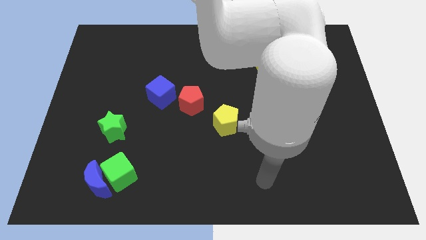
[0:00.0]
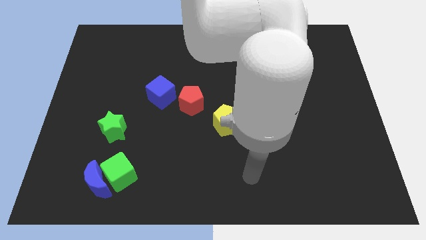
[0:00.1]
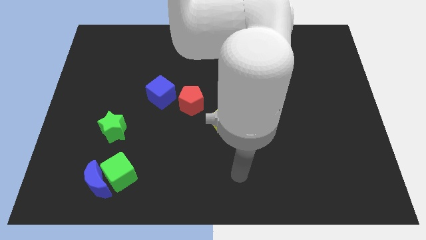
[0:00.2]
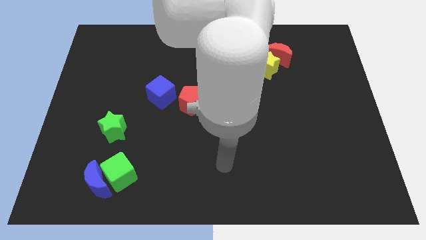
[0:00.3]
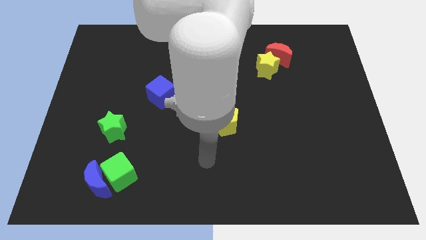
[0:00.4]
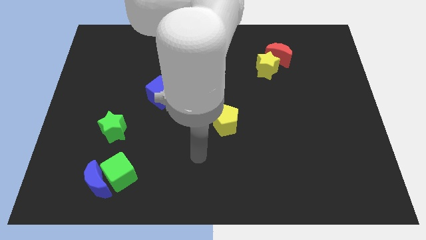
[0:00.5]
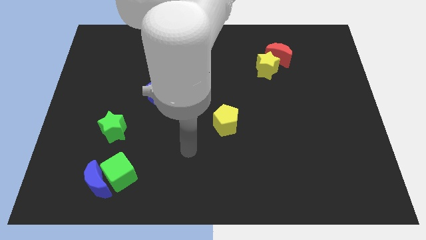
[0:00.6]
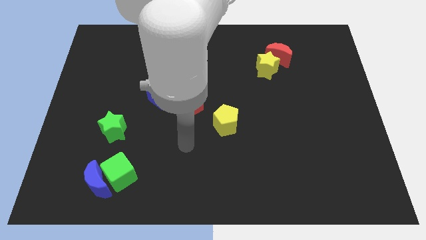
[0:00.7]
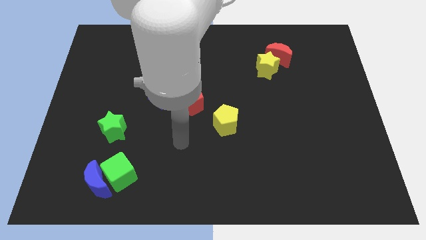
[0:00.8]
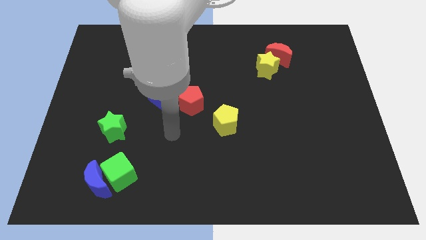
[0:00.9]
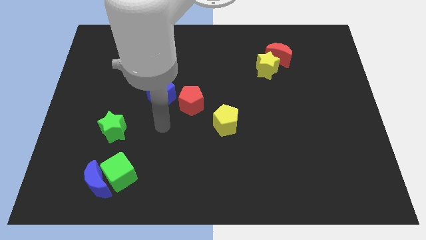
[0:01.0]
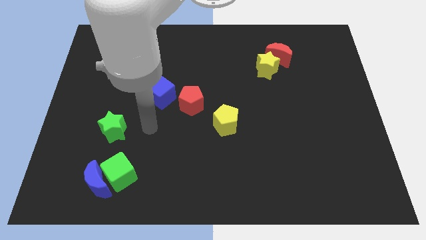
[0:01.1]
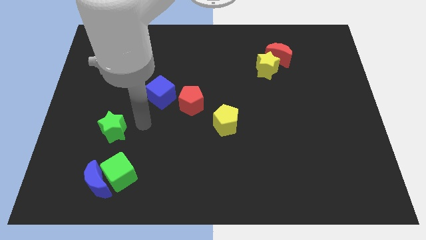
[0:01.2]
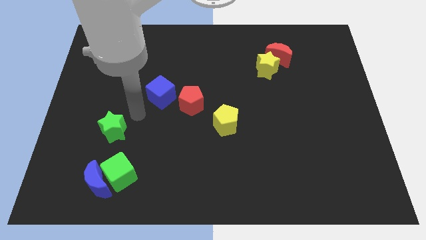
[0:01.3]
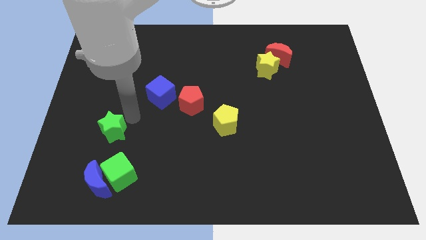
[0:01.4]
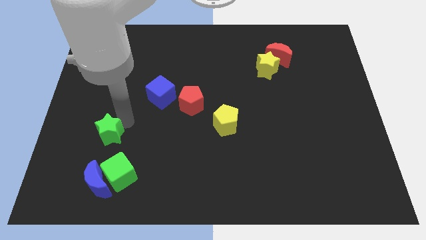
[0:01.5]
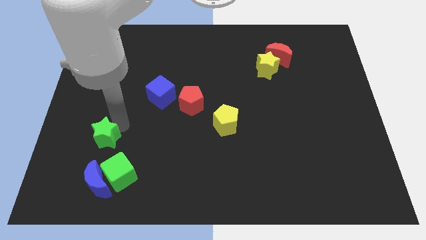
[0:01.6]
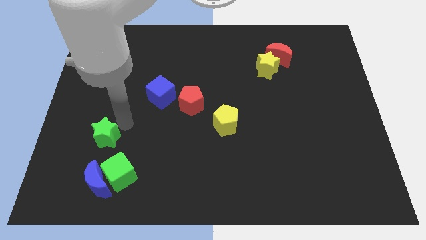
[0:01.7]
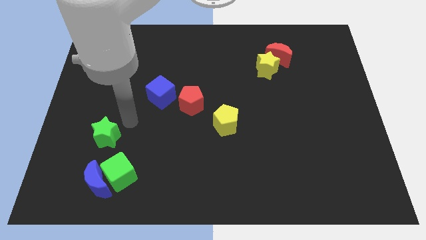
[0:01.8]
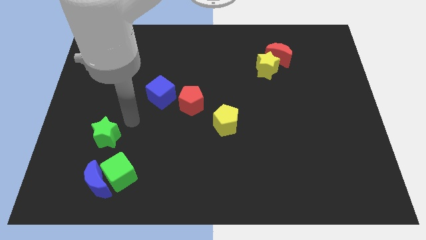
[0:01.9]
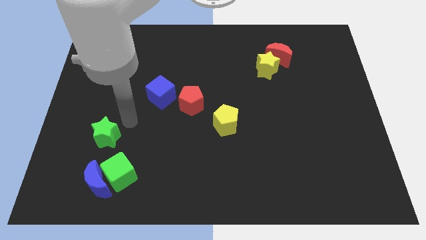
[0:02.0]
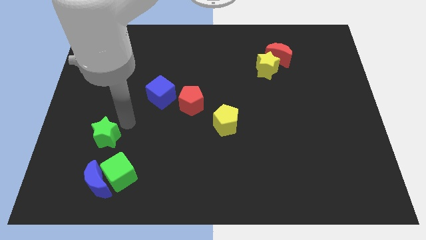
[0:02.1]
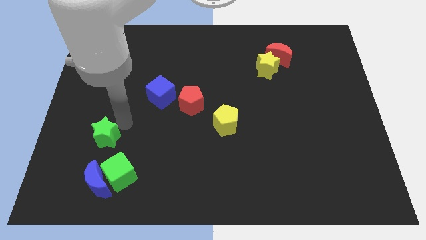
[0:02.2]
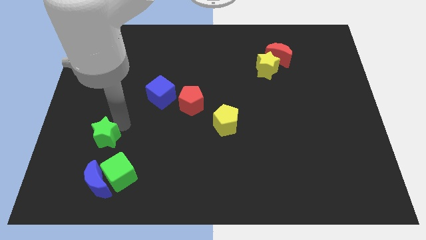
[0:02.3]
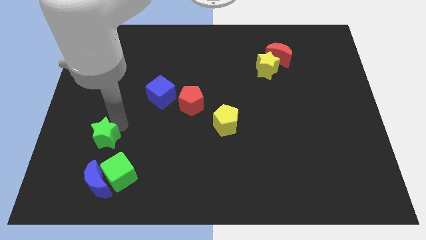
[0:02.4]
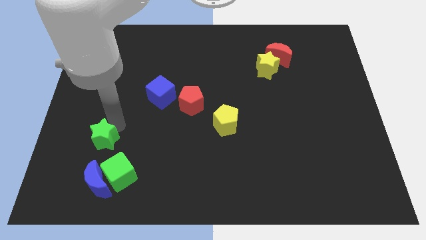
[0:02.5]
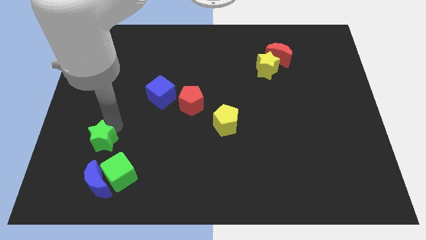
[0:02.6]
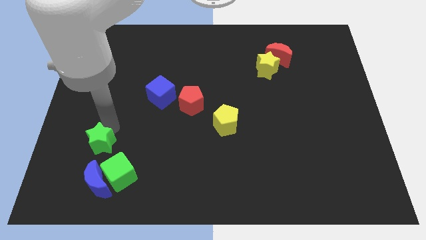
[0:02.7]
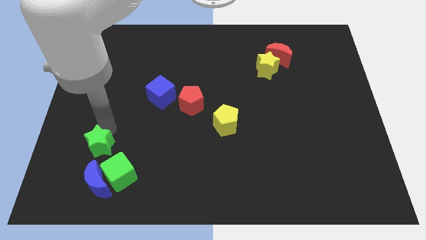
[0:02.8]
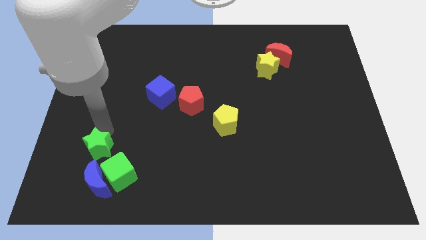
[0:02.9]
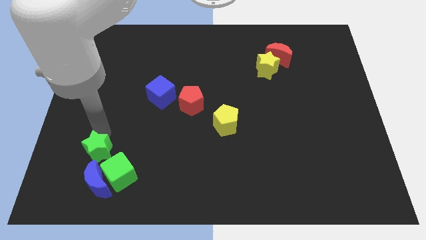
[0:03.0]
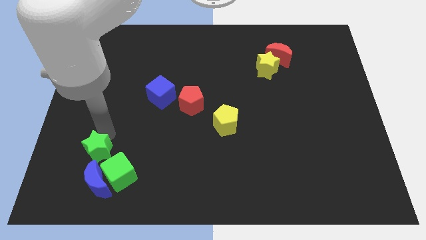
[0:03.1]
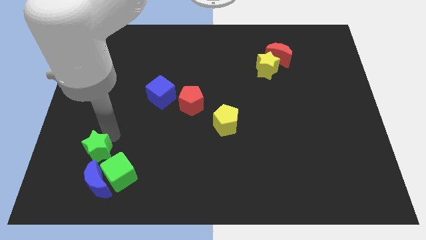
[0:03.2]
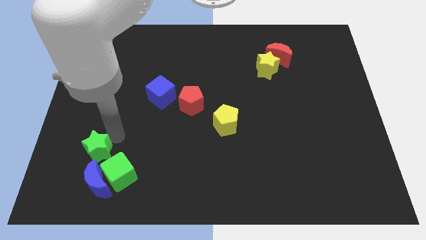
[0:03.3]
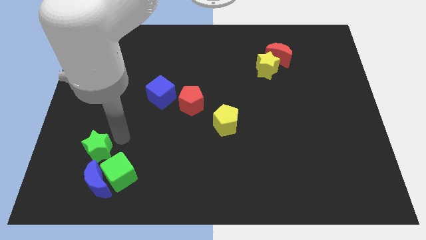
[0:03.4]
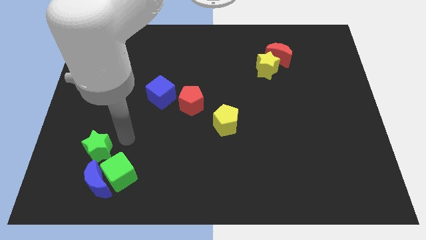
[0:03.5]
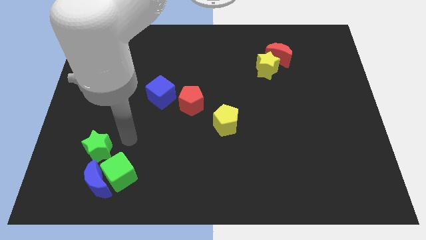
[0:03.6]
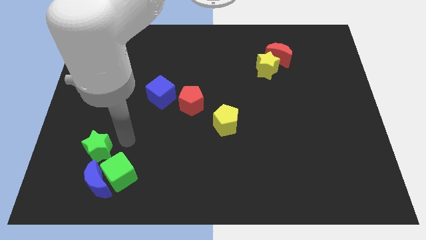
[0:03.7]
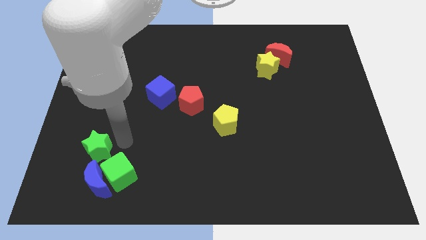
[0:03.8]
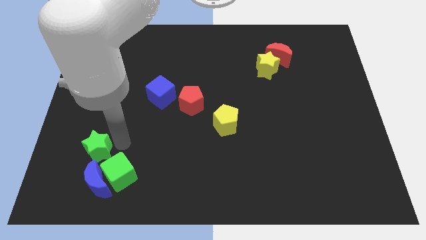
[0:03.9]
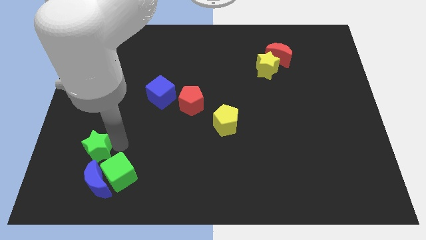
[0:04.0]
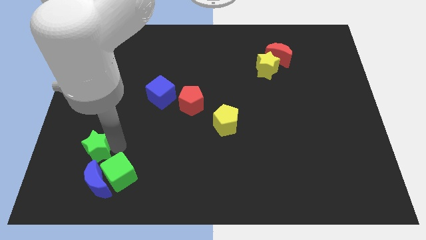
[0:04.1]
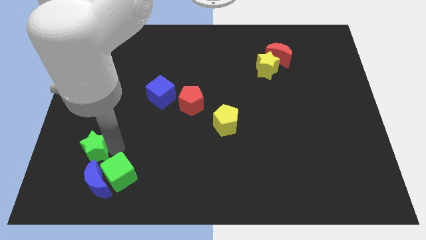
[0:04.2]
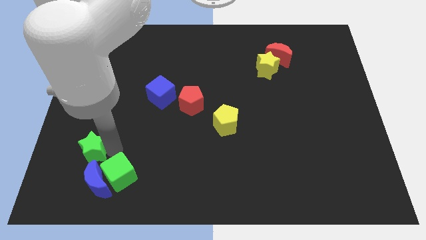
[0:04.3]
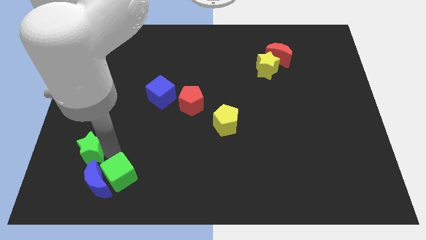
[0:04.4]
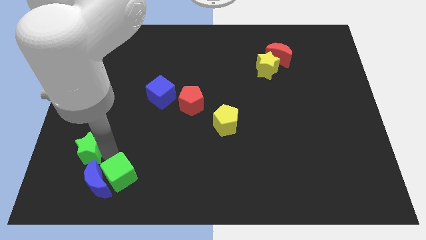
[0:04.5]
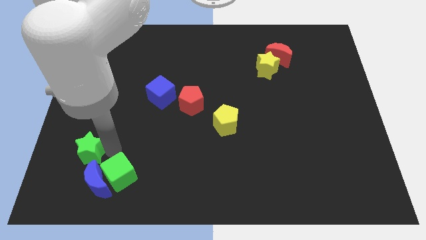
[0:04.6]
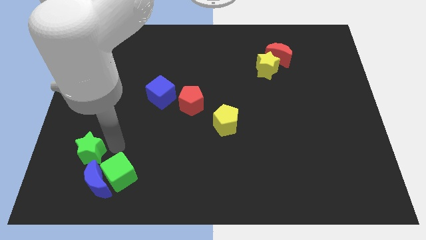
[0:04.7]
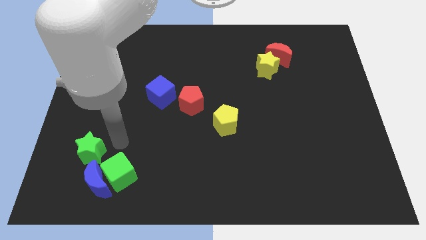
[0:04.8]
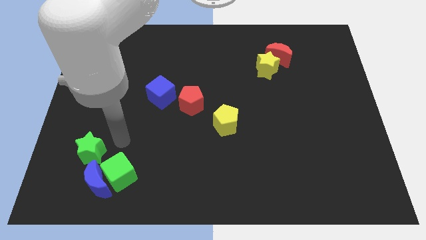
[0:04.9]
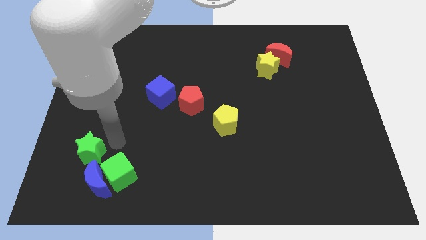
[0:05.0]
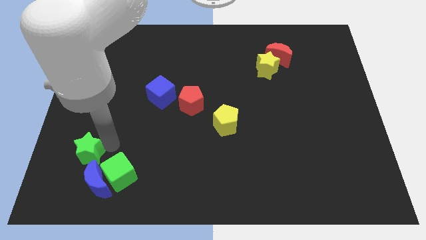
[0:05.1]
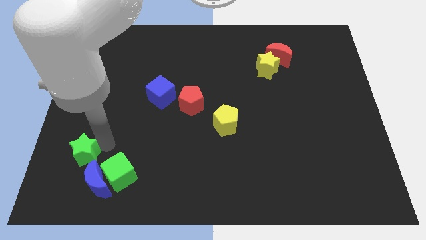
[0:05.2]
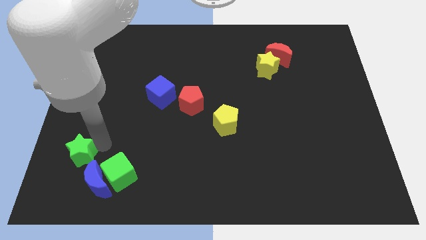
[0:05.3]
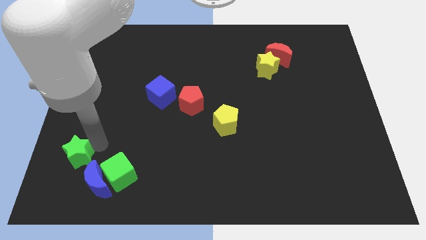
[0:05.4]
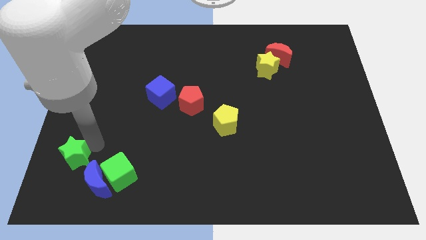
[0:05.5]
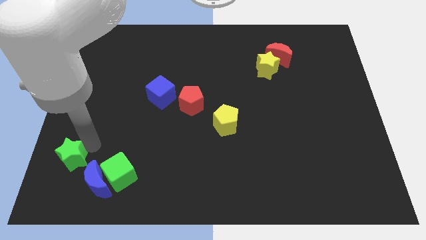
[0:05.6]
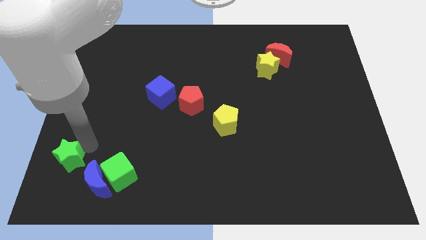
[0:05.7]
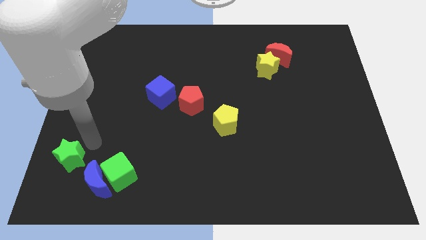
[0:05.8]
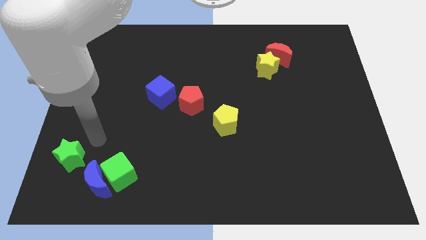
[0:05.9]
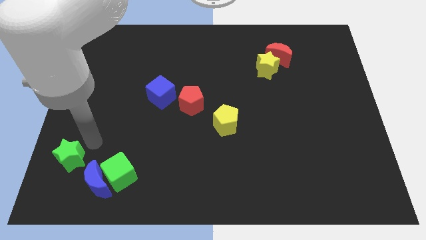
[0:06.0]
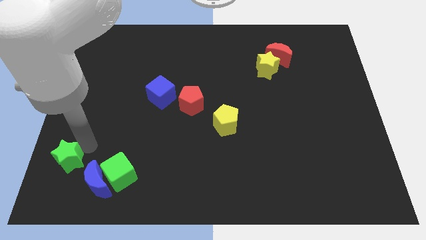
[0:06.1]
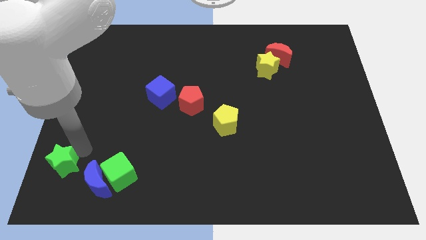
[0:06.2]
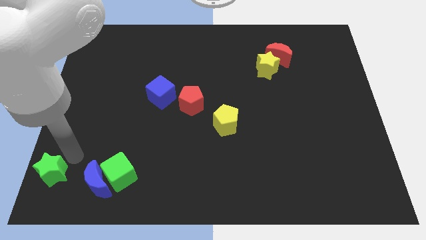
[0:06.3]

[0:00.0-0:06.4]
push the green star to the bottom left of the board
